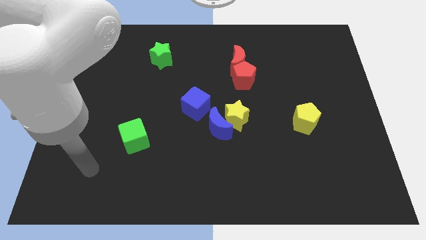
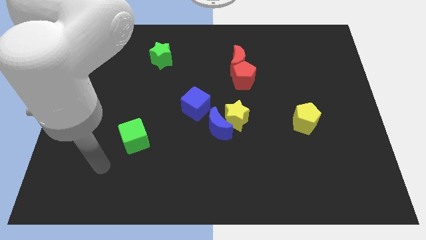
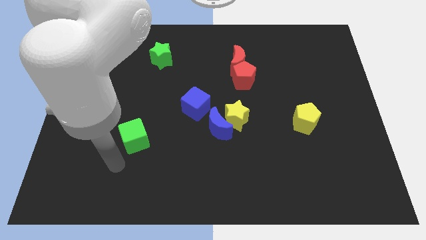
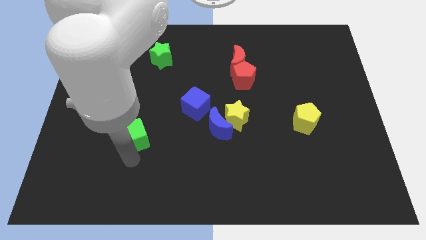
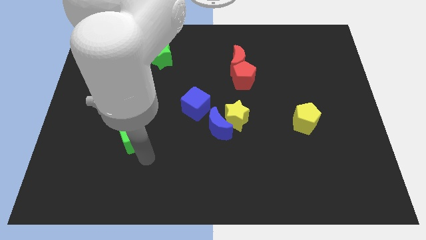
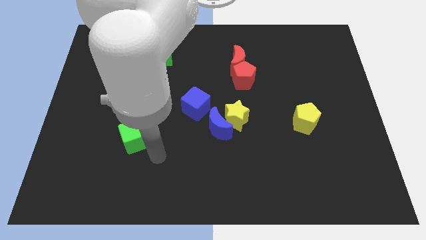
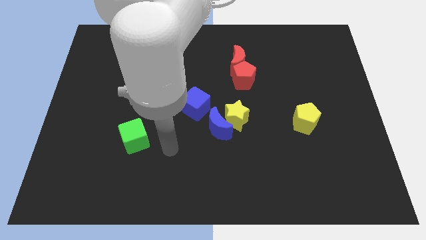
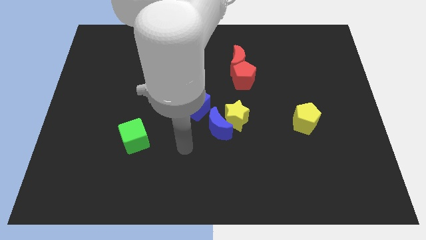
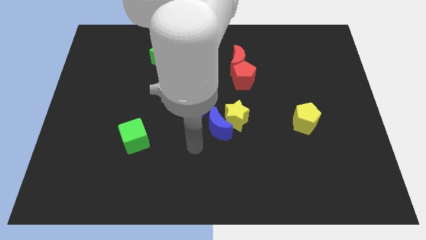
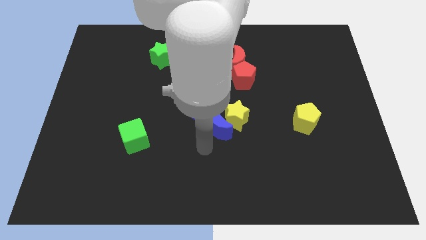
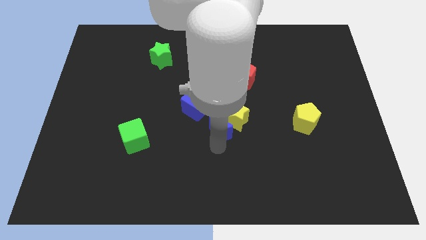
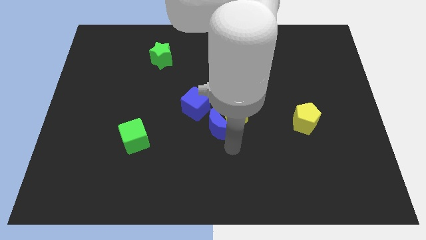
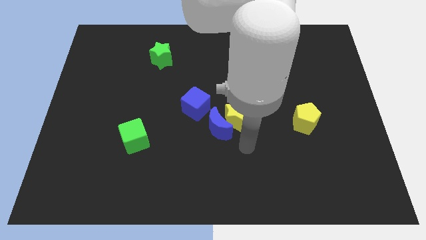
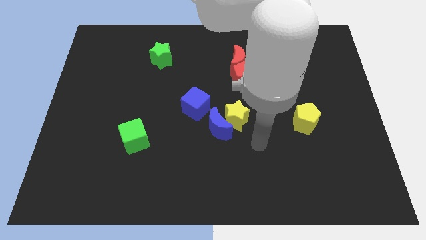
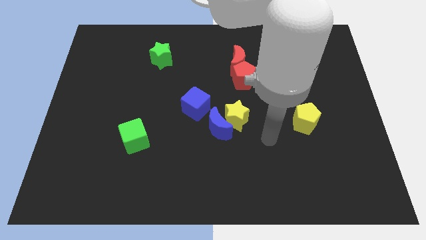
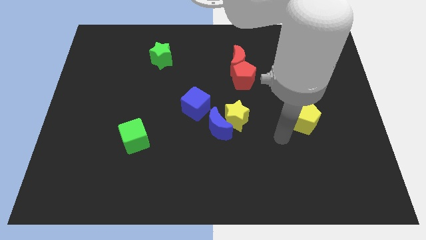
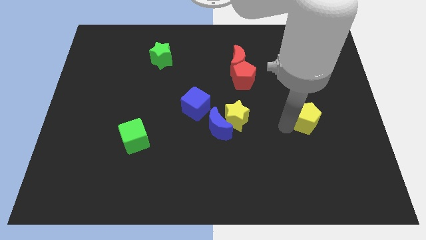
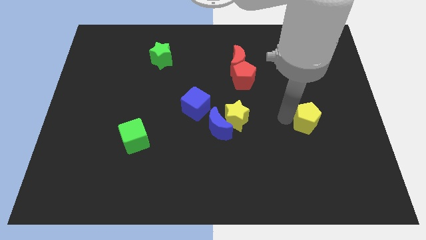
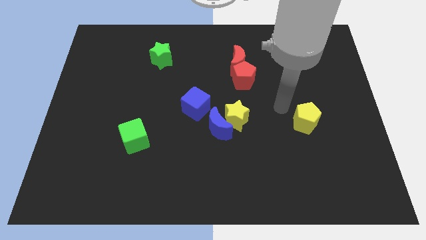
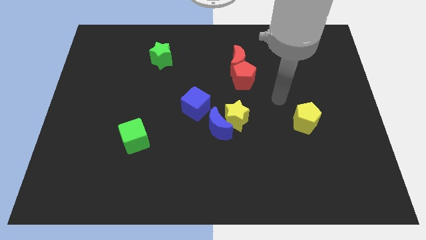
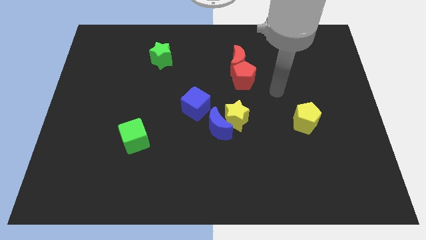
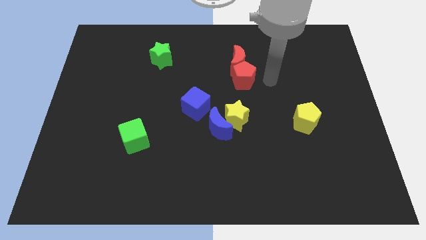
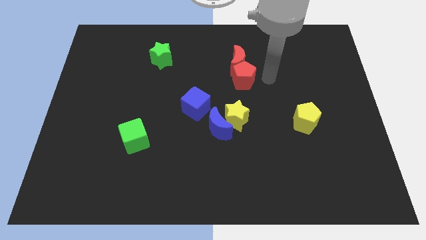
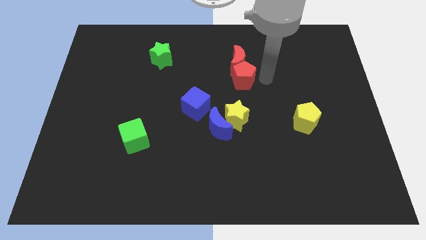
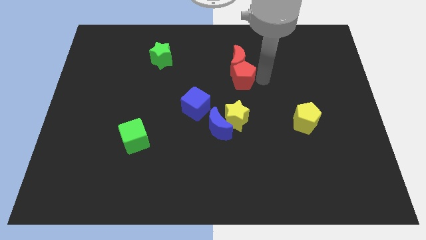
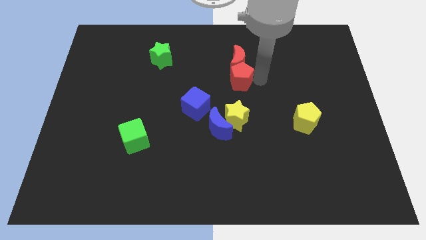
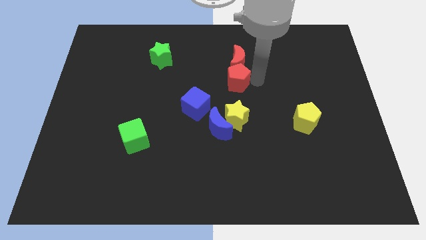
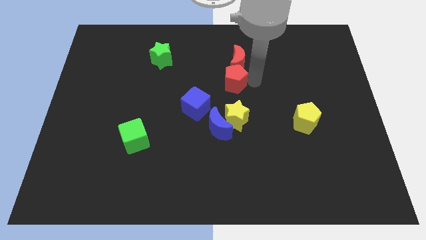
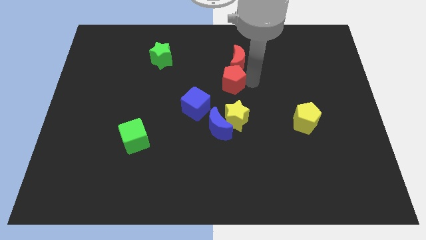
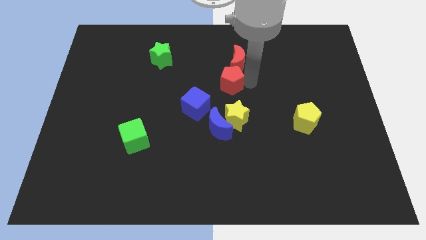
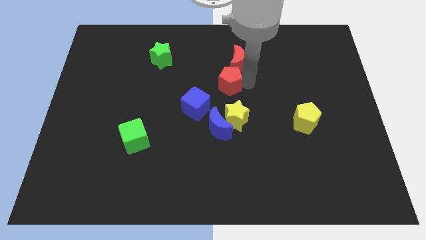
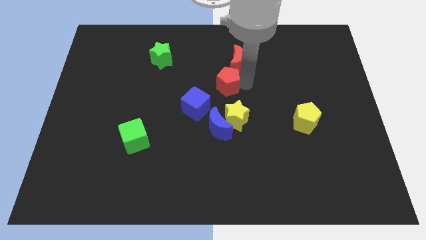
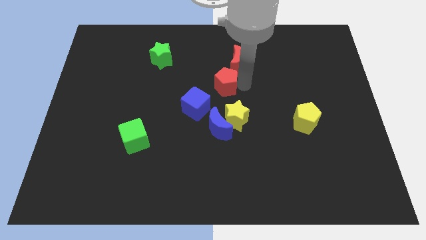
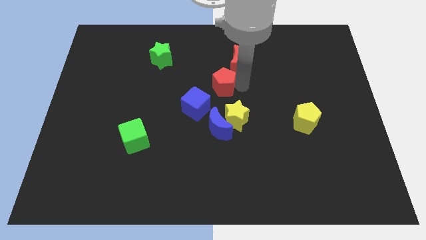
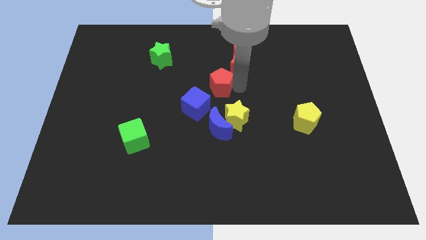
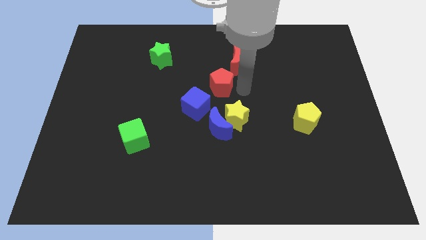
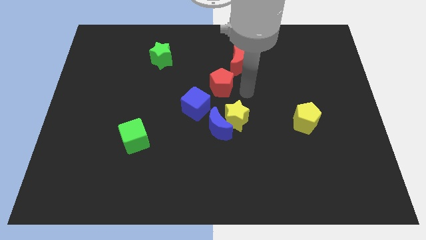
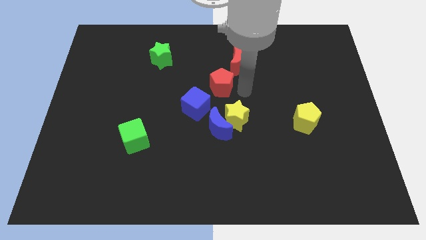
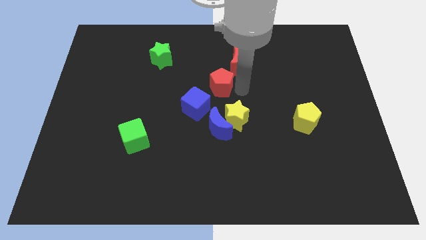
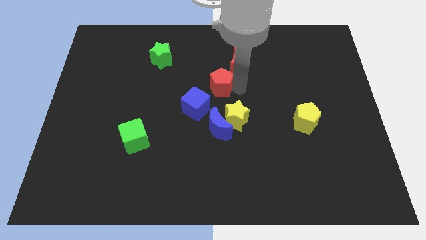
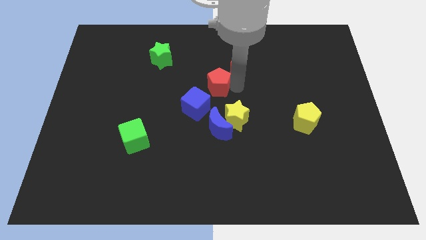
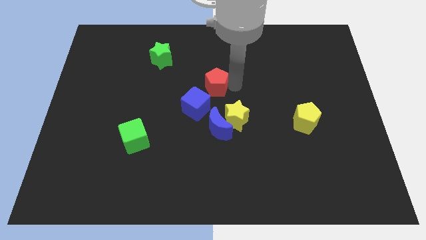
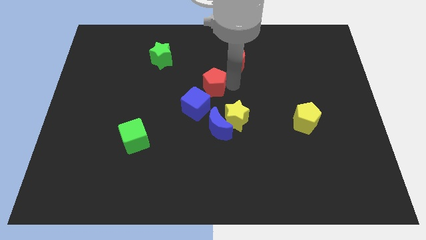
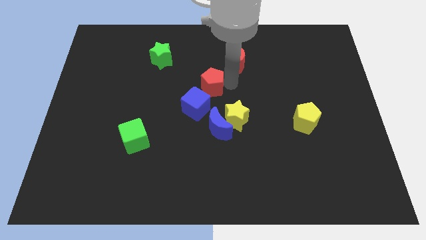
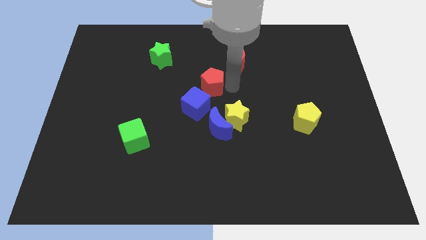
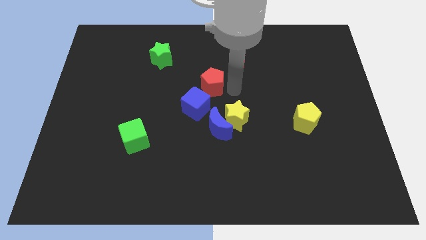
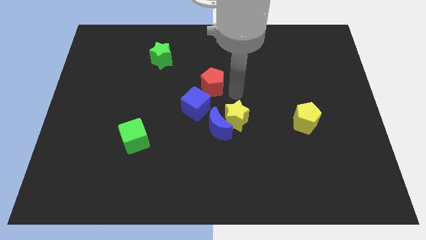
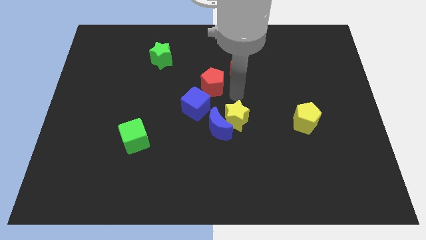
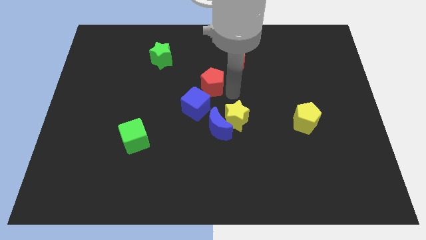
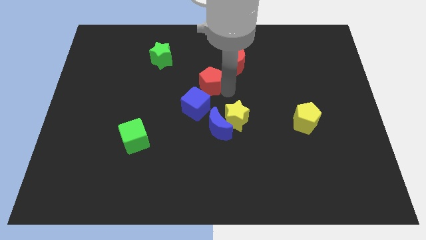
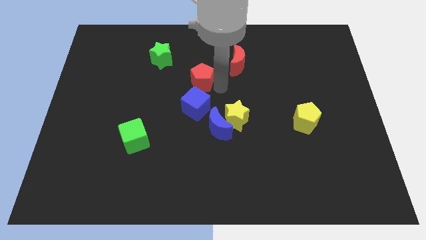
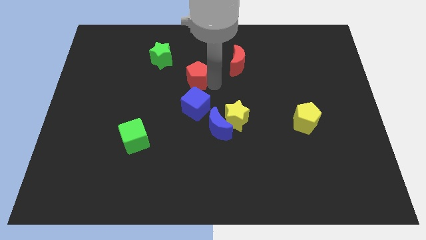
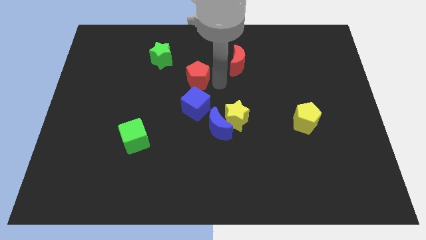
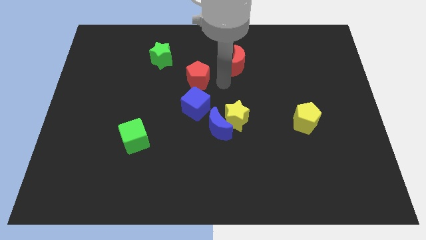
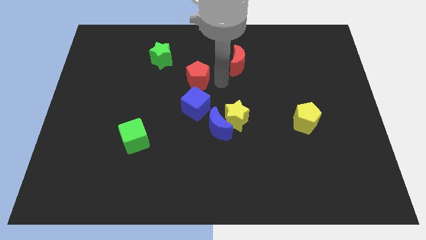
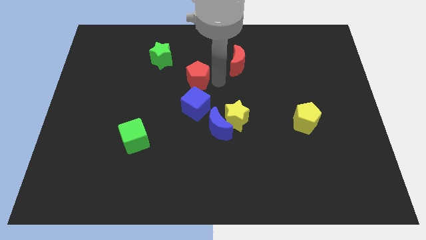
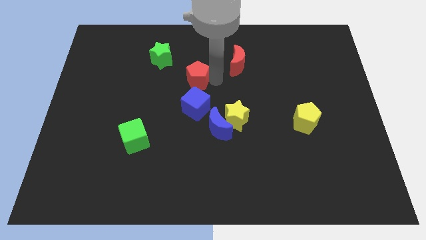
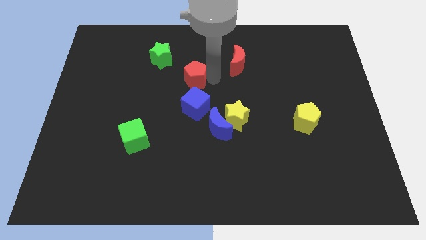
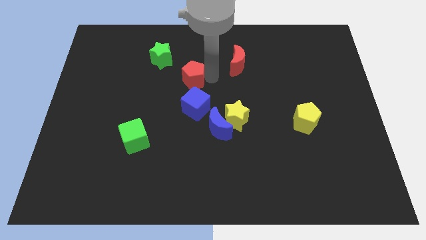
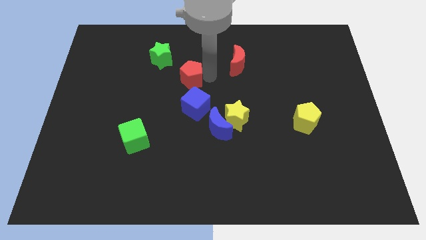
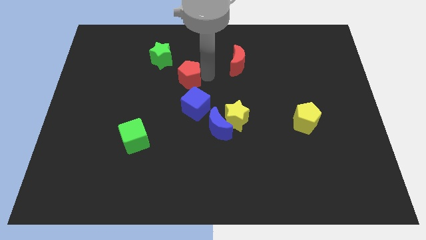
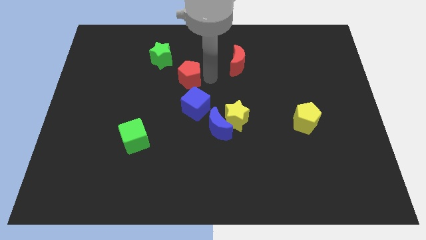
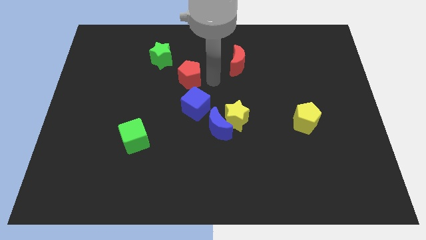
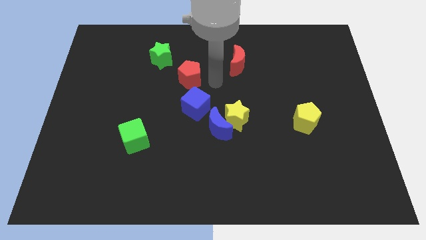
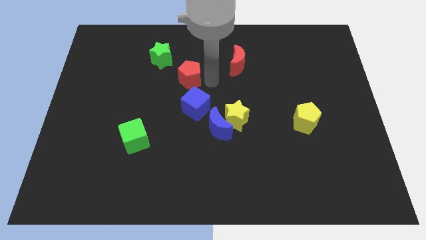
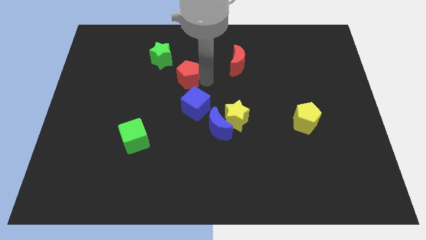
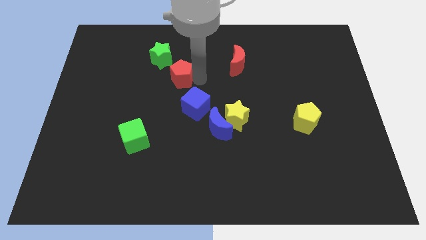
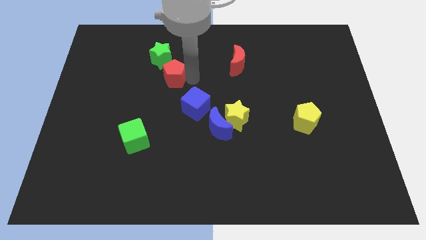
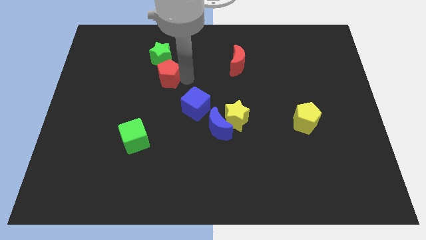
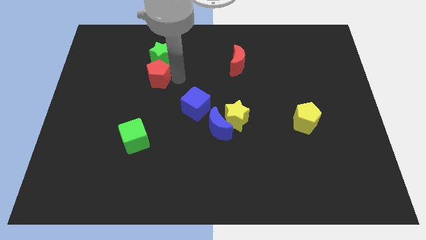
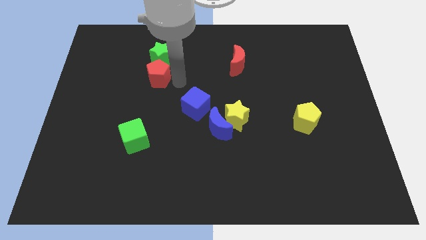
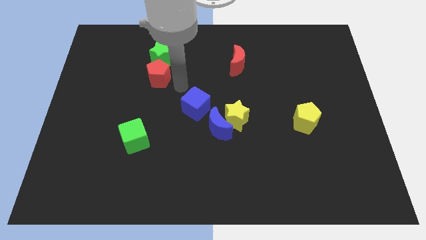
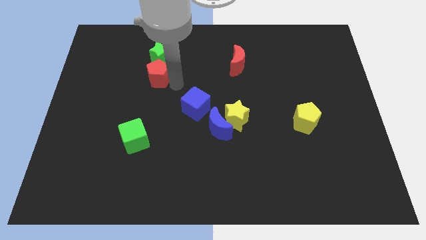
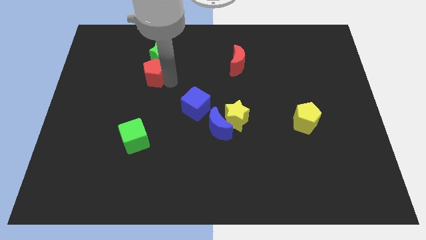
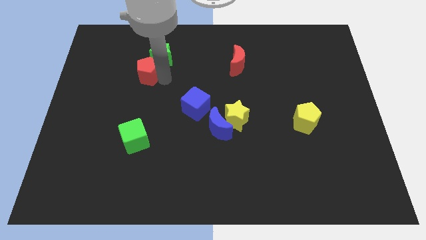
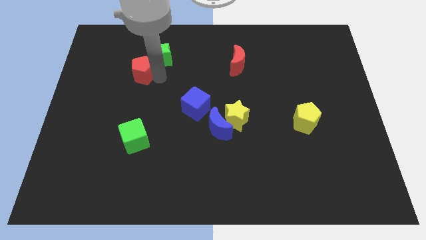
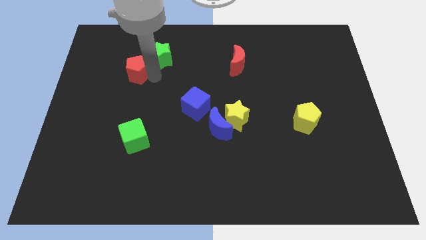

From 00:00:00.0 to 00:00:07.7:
push the red pentagon just left of the green star
